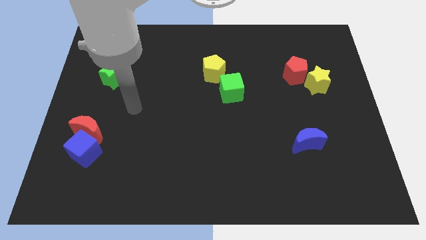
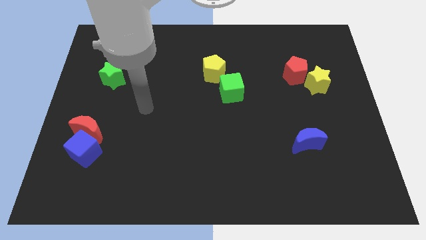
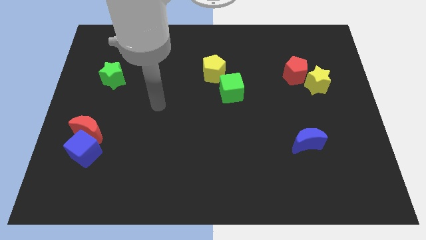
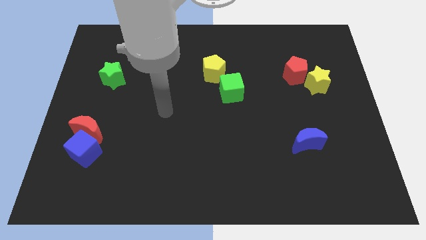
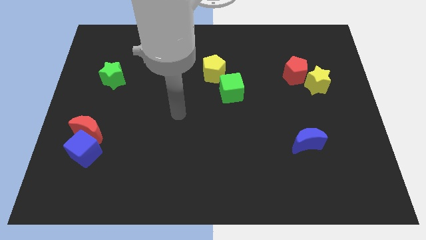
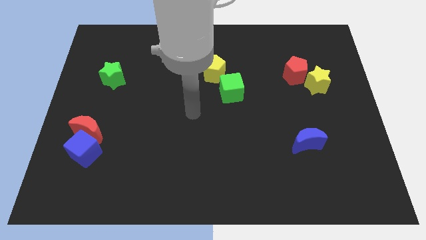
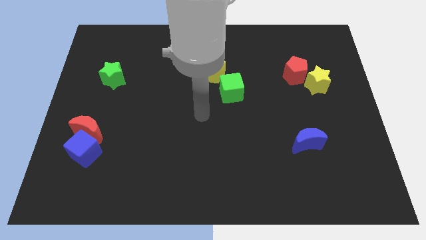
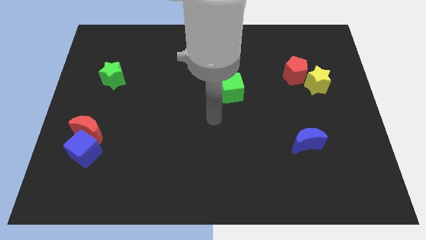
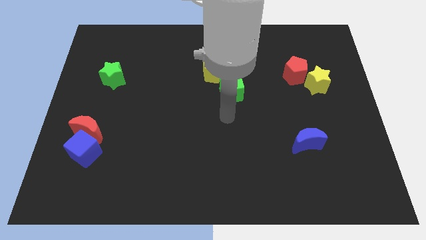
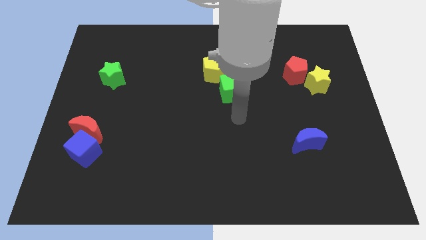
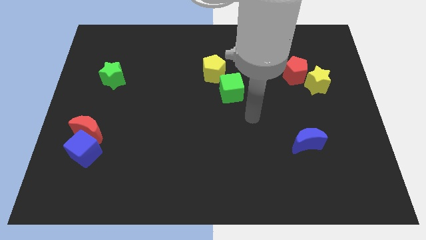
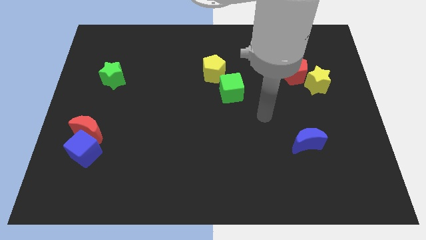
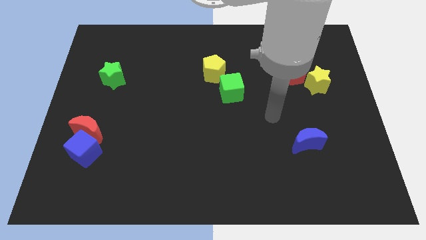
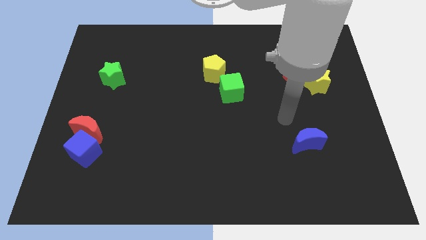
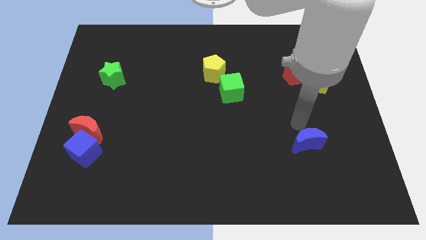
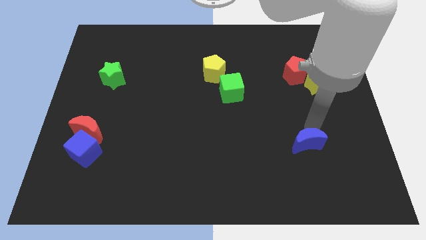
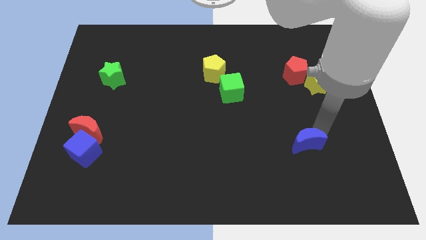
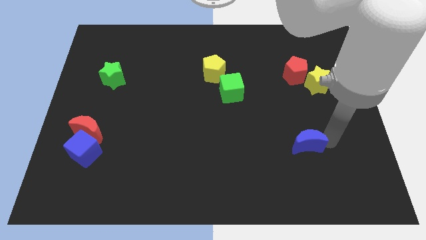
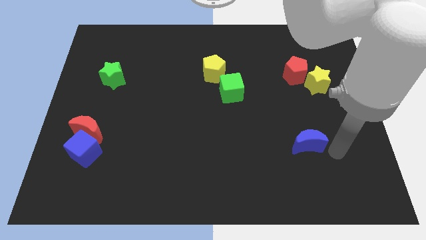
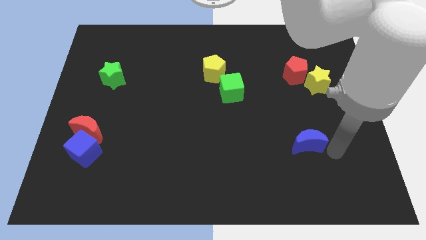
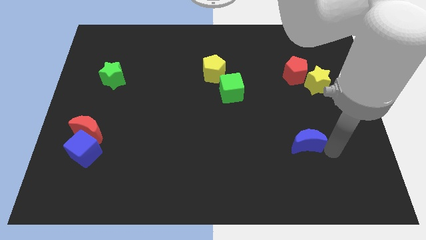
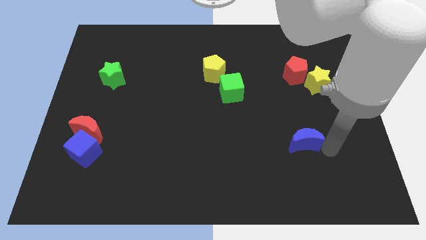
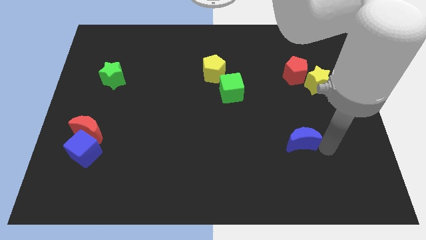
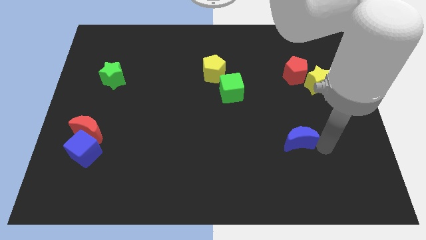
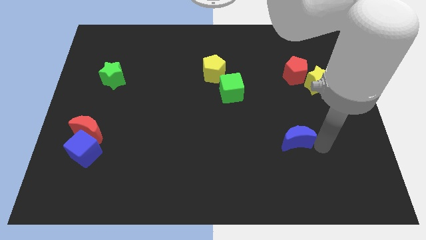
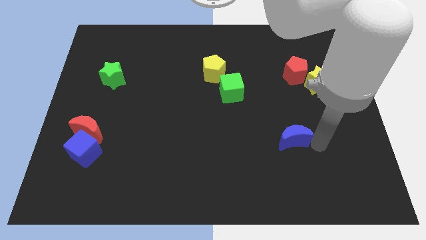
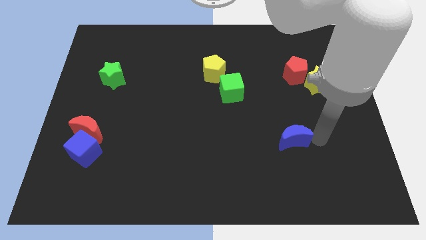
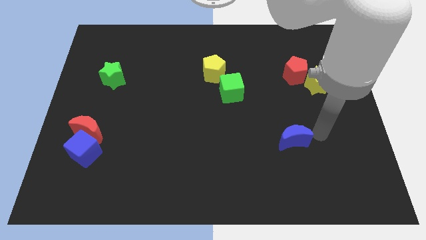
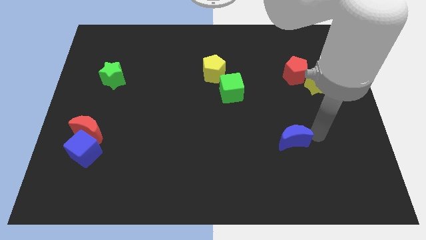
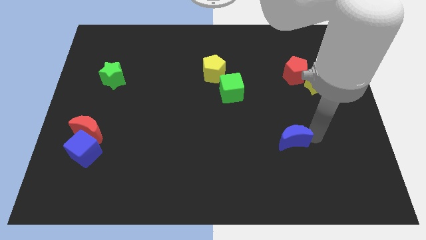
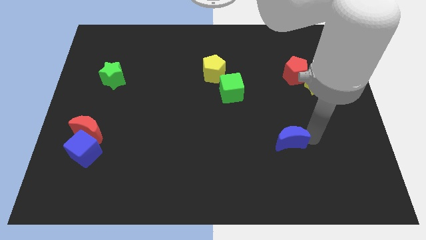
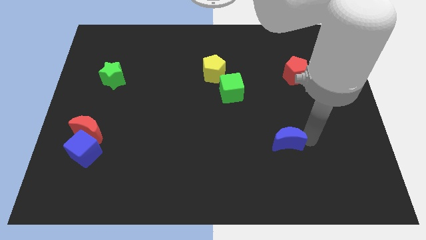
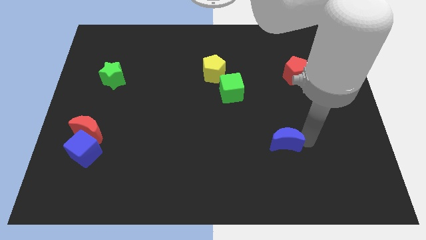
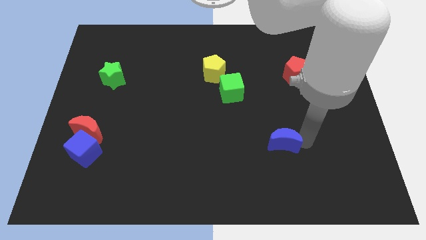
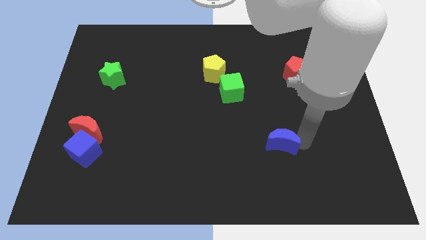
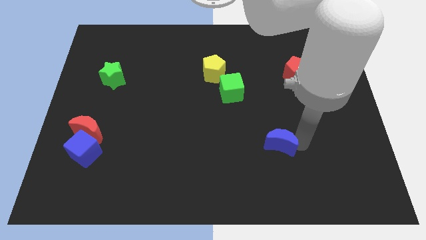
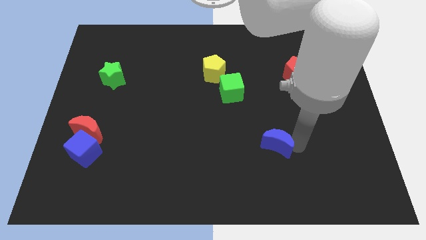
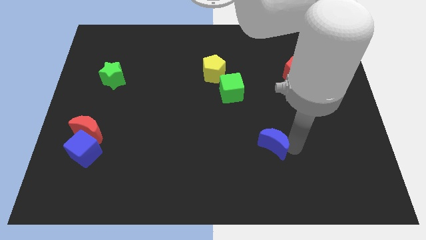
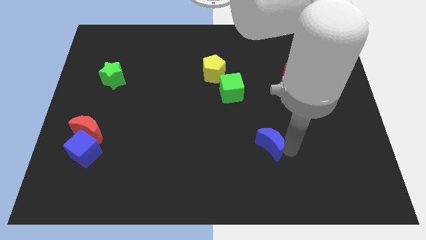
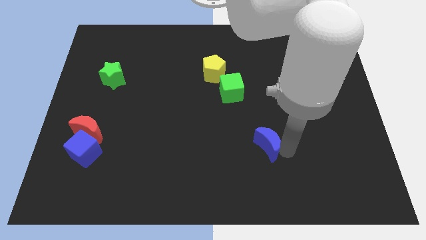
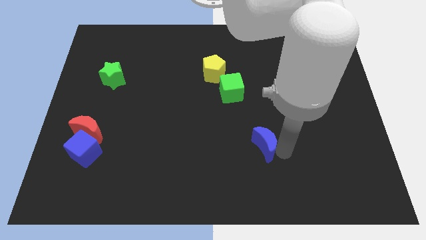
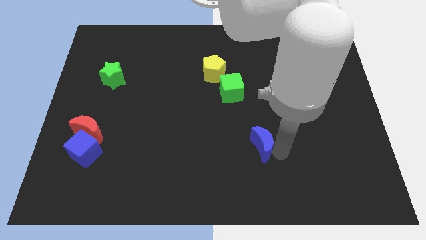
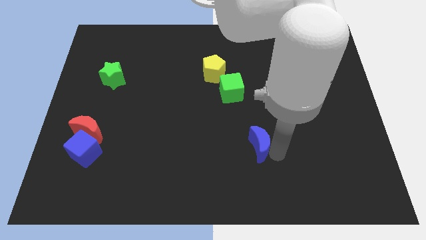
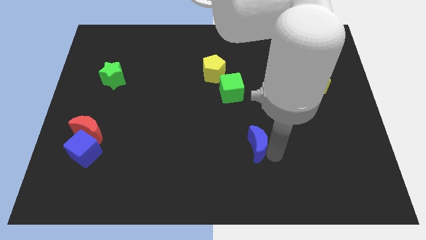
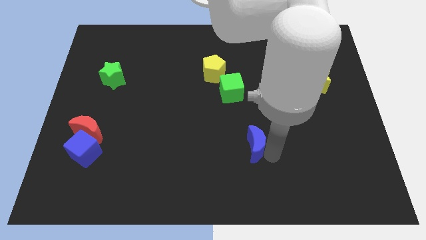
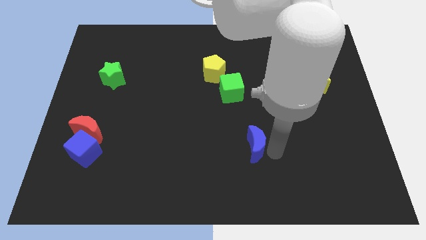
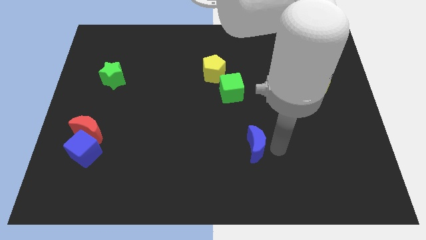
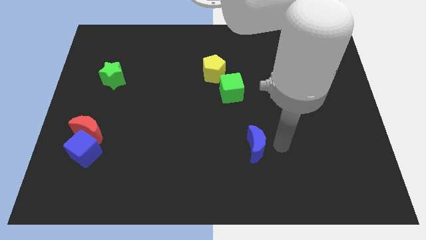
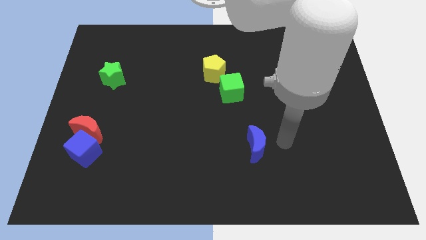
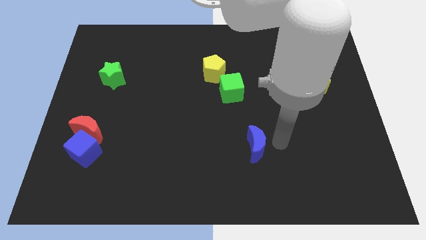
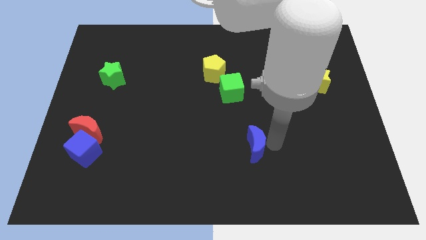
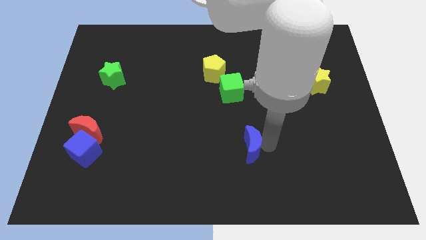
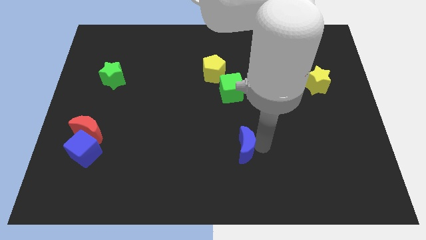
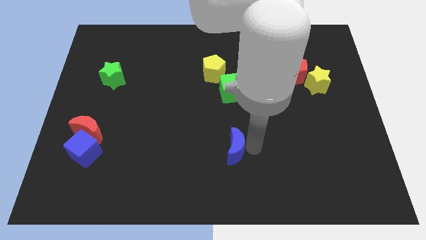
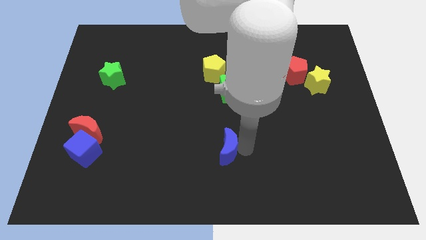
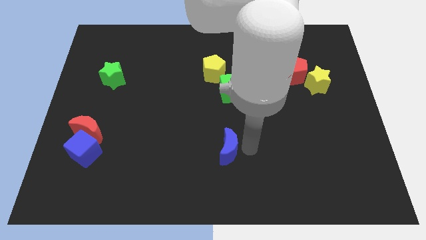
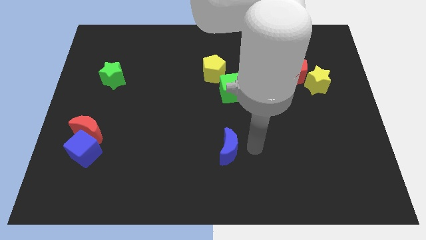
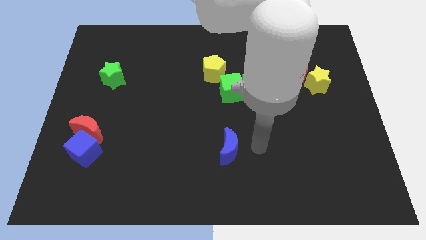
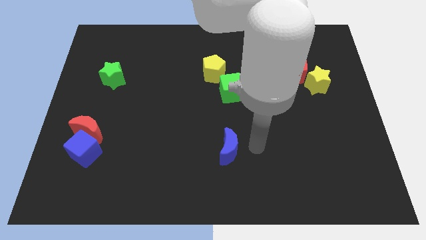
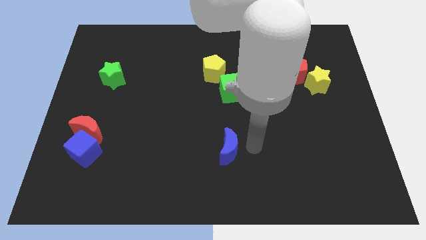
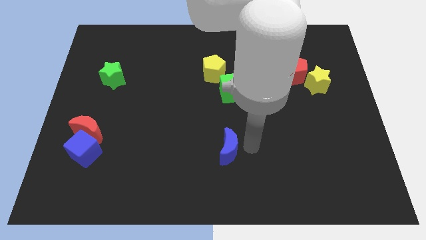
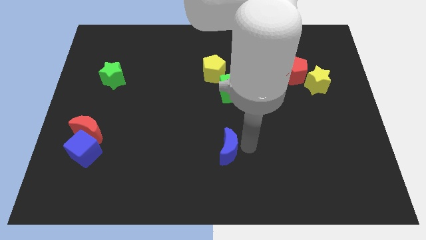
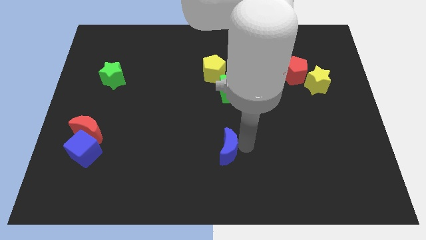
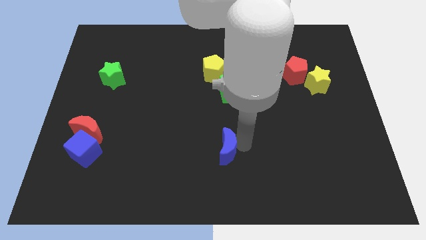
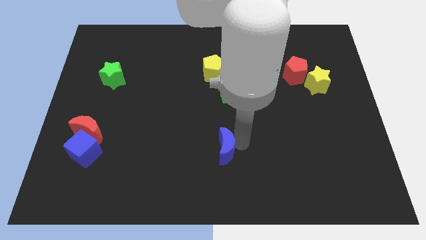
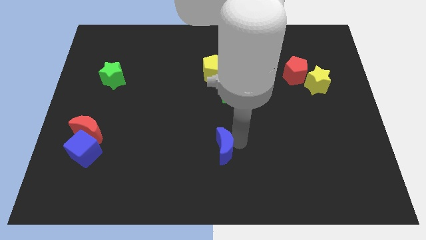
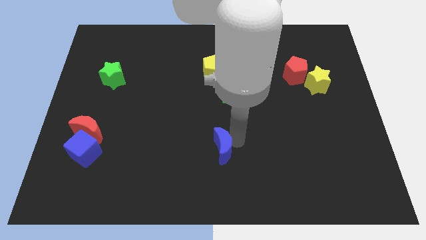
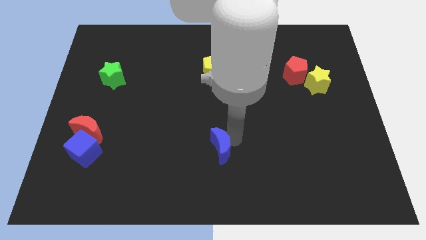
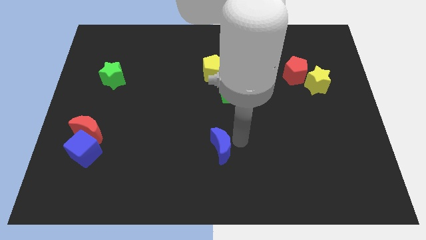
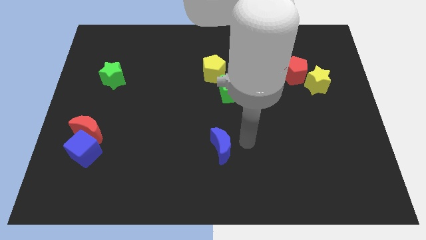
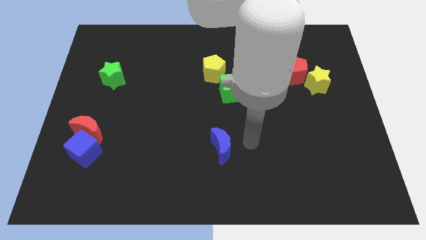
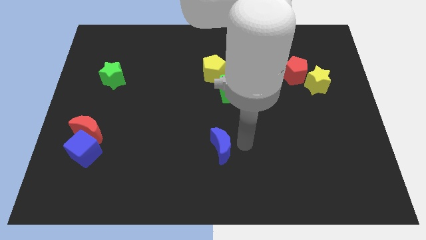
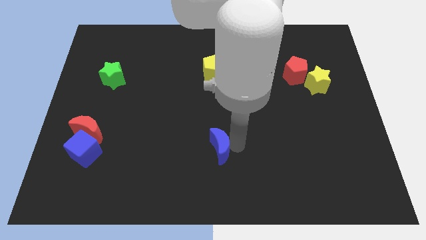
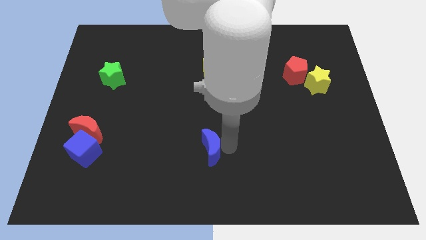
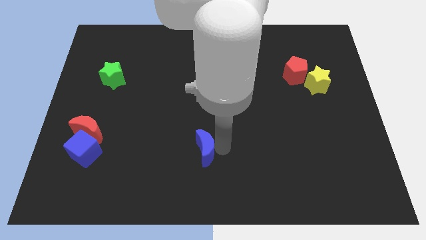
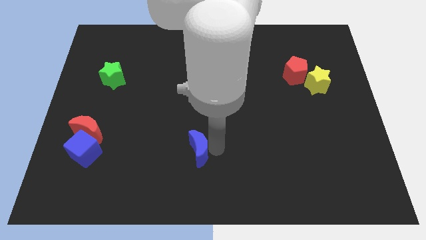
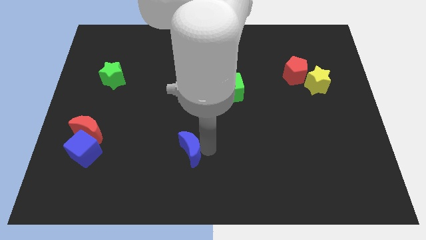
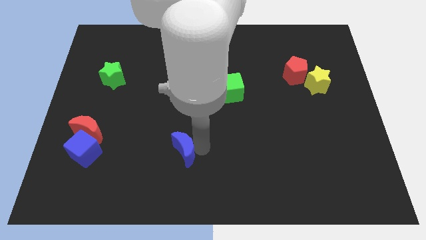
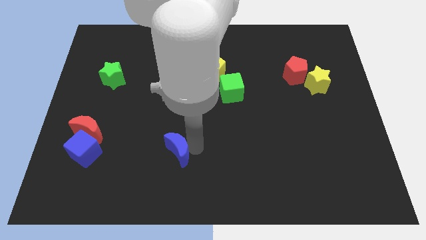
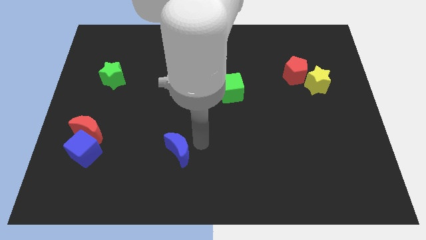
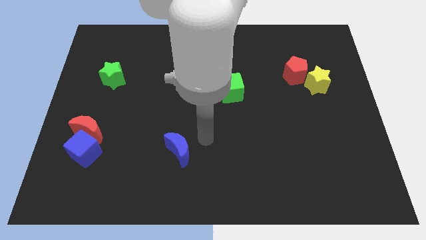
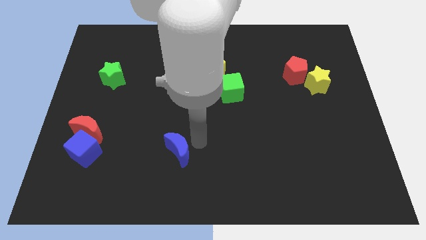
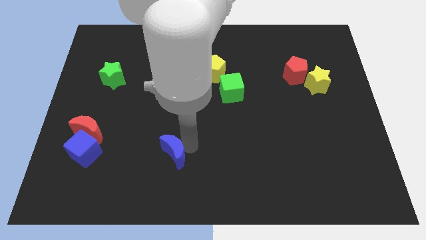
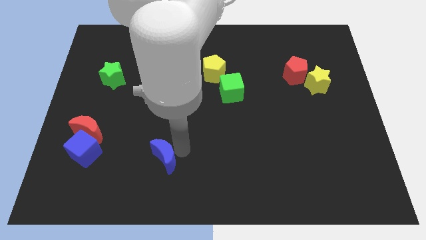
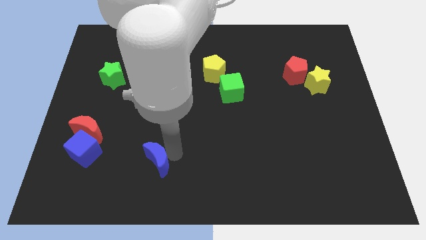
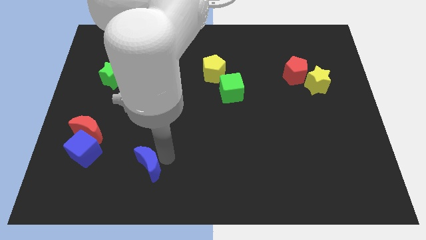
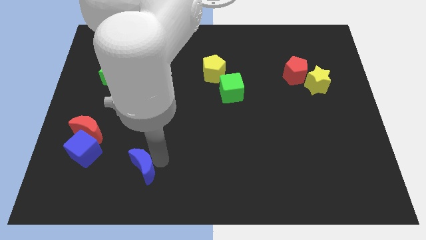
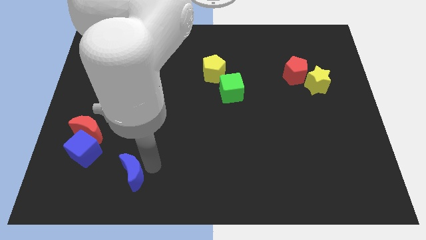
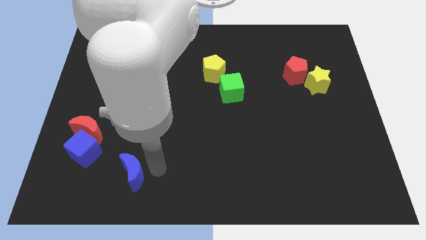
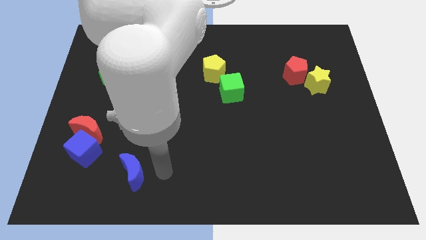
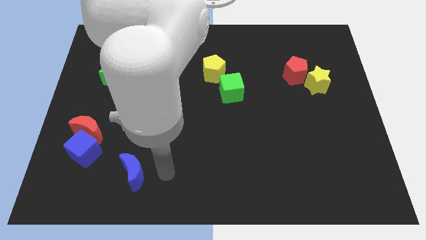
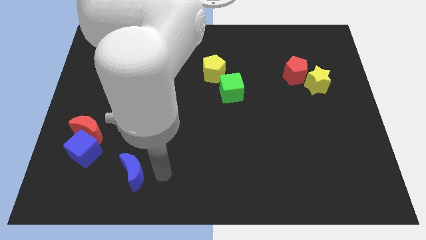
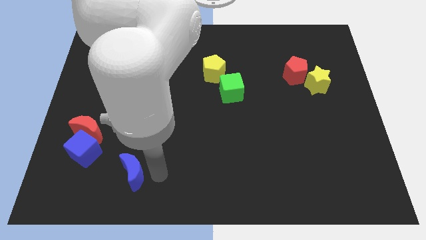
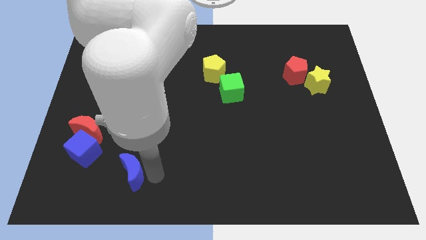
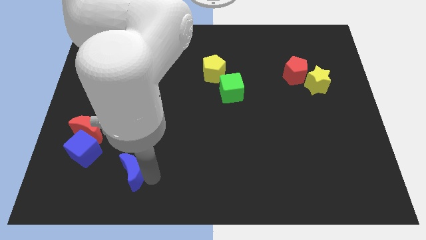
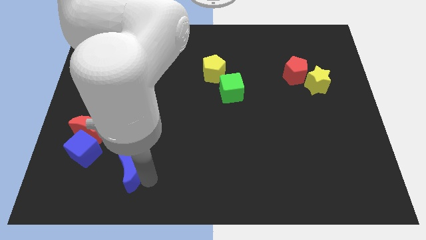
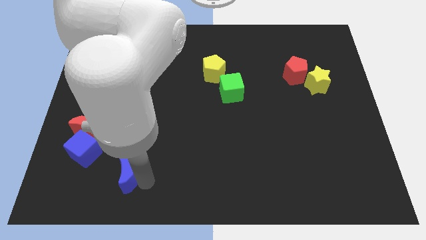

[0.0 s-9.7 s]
put the blue moon to the bottom right side of the blue cube
